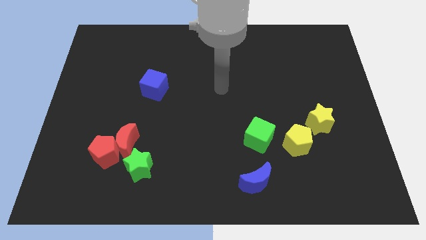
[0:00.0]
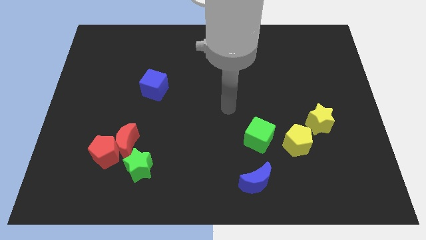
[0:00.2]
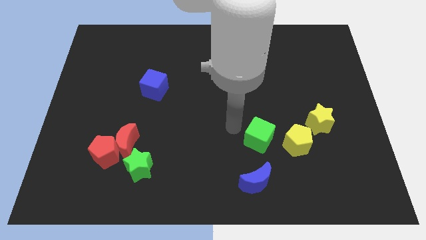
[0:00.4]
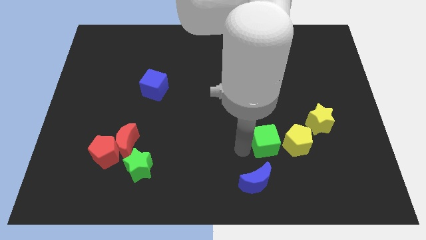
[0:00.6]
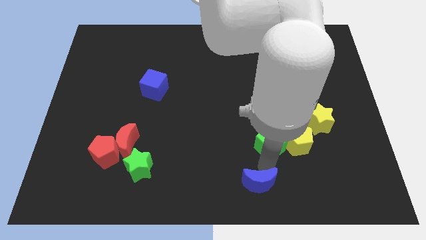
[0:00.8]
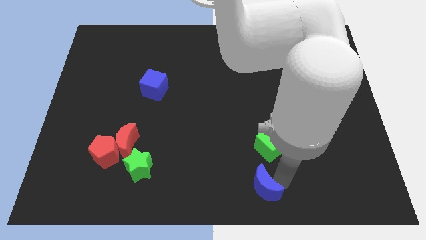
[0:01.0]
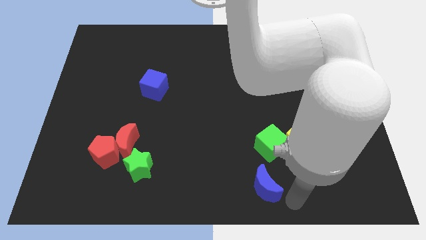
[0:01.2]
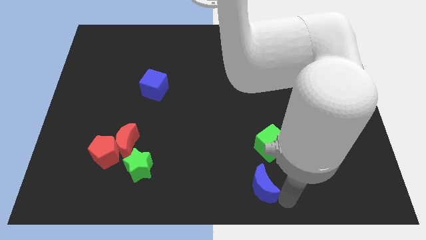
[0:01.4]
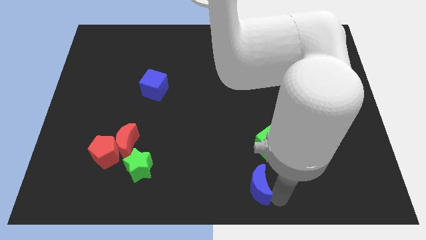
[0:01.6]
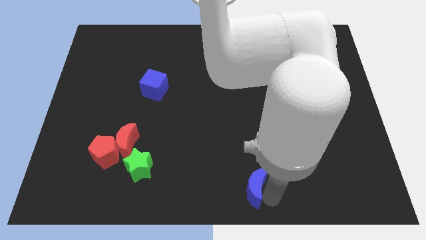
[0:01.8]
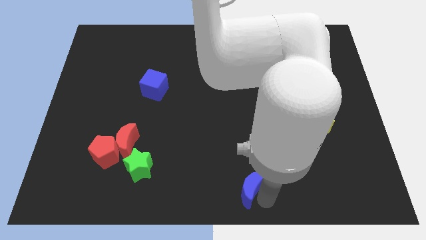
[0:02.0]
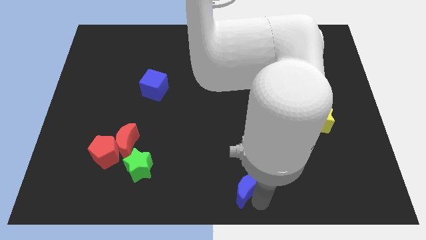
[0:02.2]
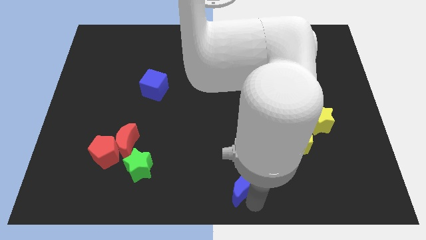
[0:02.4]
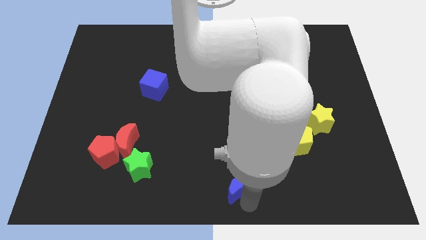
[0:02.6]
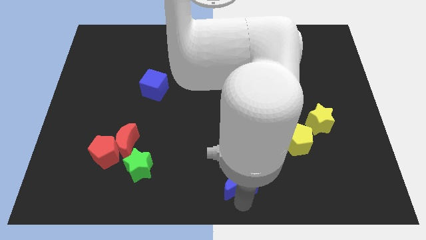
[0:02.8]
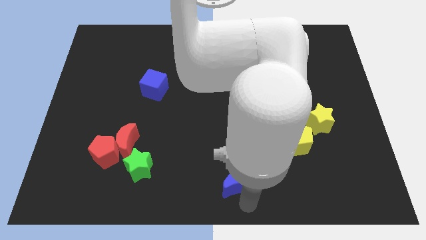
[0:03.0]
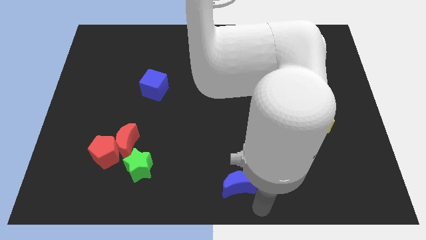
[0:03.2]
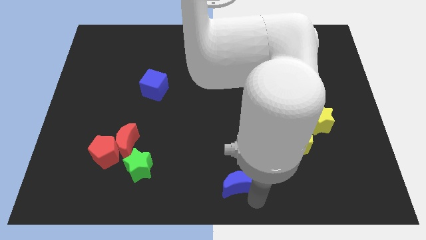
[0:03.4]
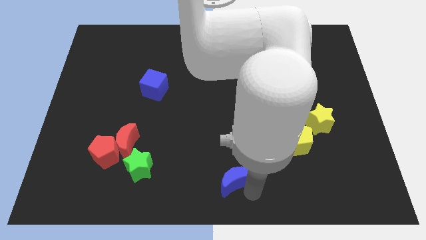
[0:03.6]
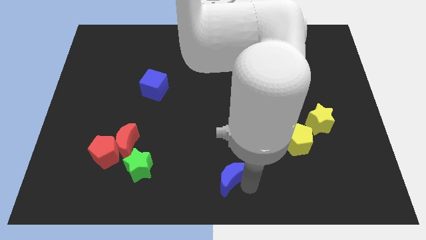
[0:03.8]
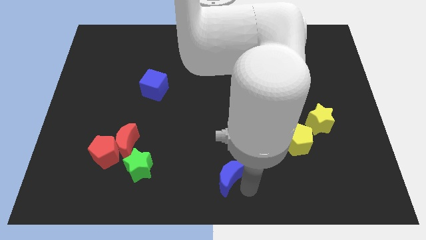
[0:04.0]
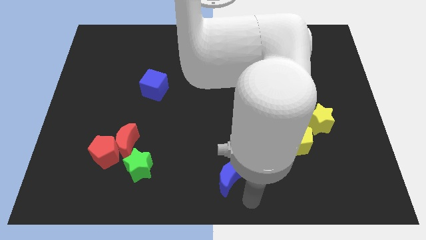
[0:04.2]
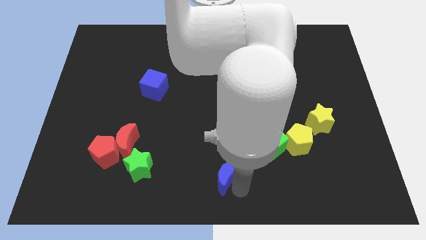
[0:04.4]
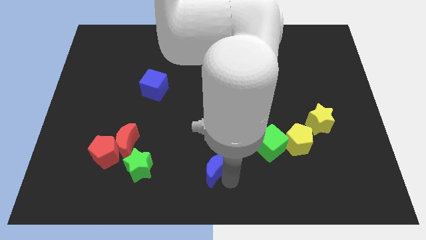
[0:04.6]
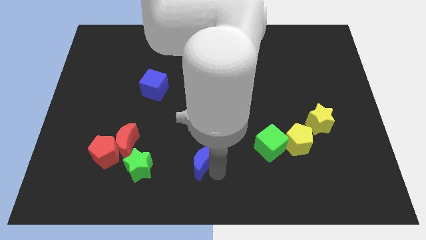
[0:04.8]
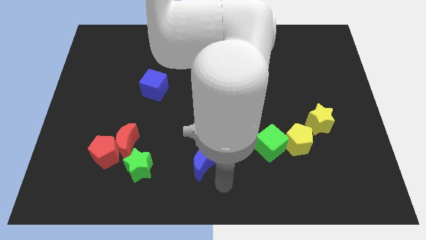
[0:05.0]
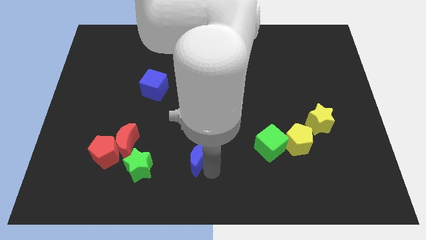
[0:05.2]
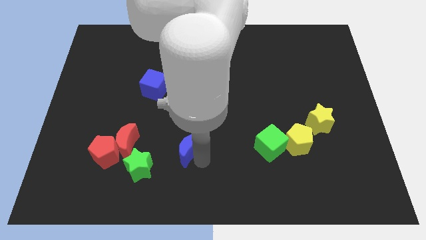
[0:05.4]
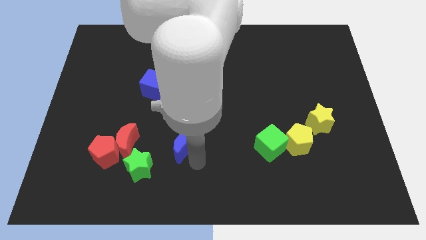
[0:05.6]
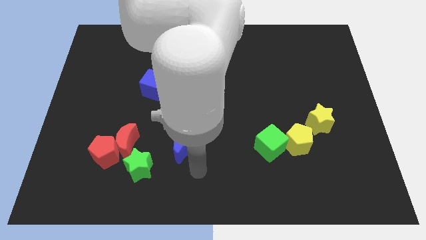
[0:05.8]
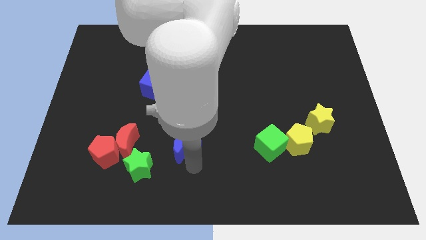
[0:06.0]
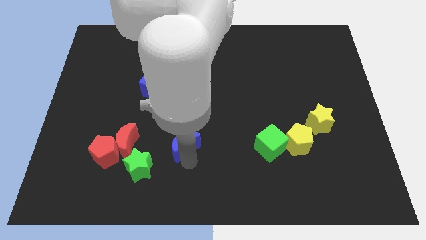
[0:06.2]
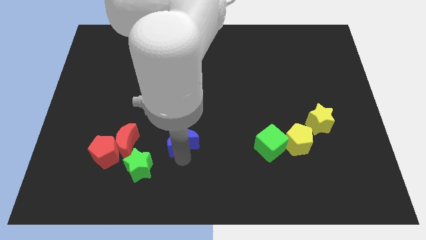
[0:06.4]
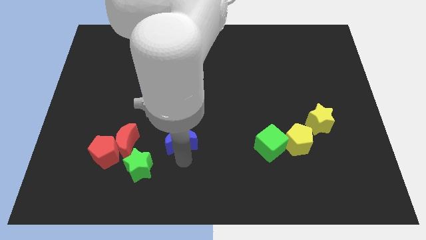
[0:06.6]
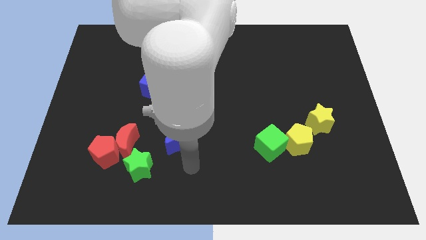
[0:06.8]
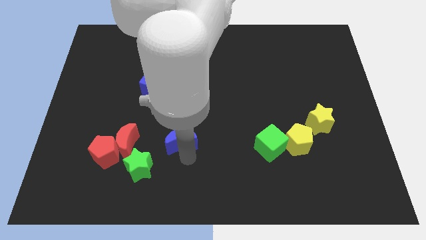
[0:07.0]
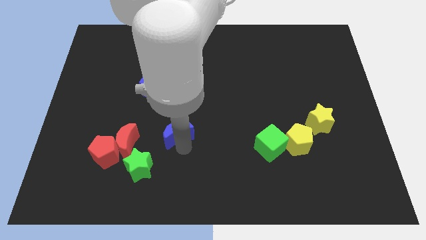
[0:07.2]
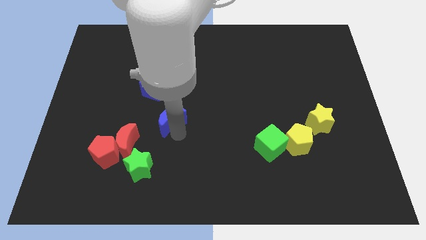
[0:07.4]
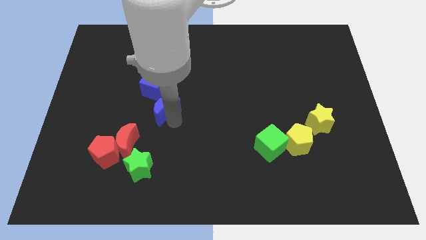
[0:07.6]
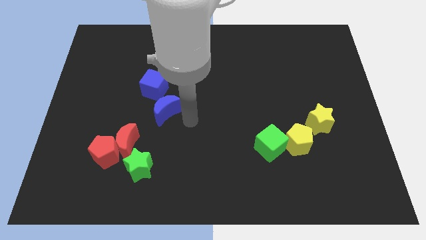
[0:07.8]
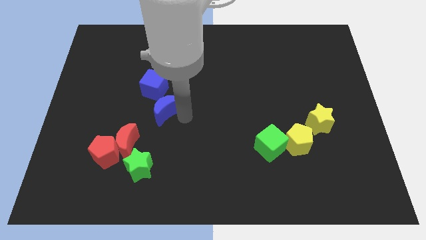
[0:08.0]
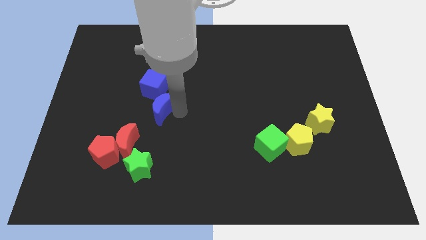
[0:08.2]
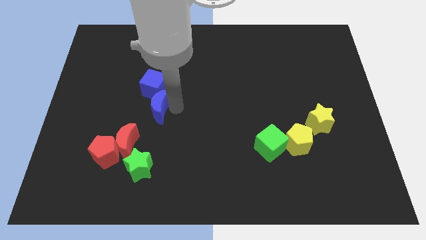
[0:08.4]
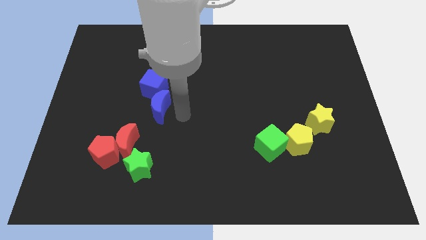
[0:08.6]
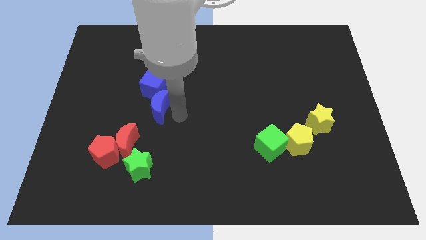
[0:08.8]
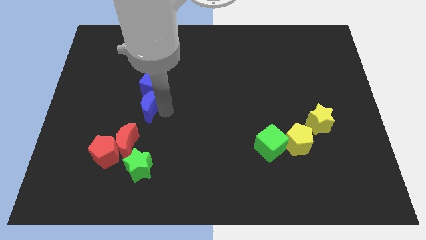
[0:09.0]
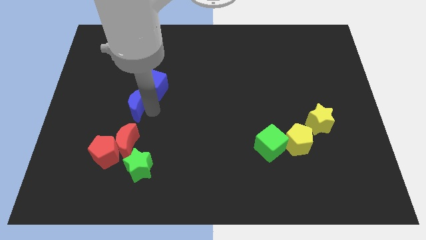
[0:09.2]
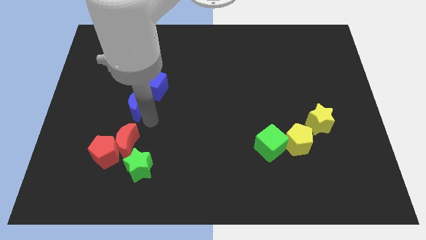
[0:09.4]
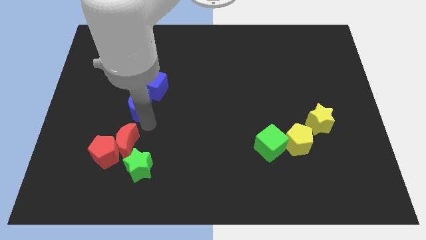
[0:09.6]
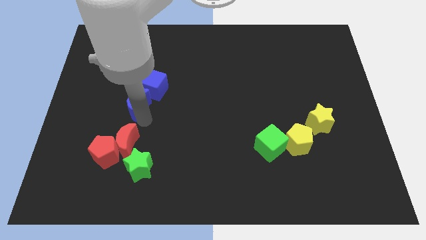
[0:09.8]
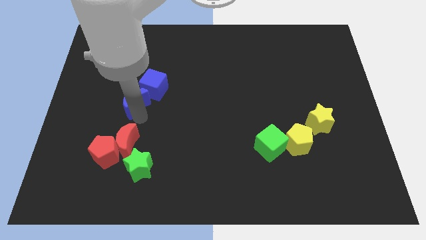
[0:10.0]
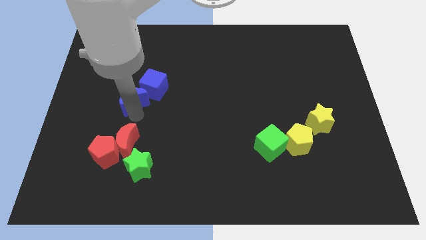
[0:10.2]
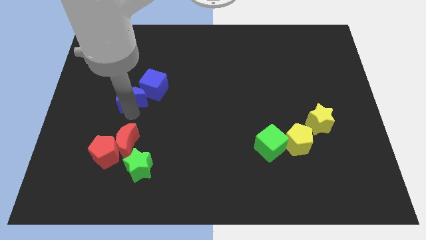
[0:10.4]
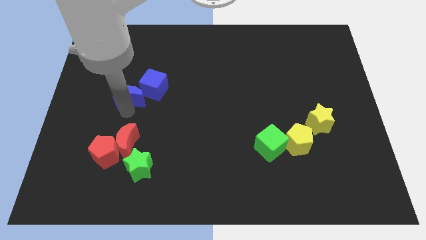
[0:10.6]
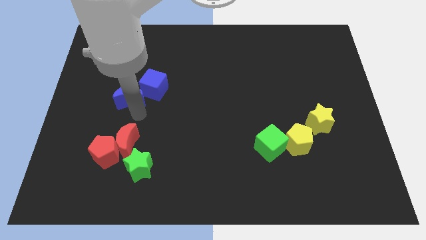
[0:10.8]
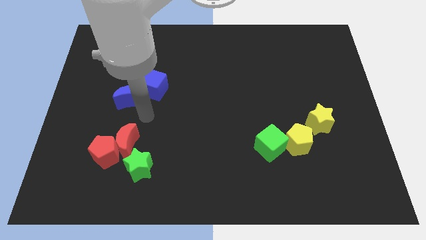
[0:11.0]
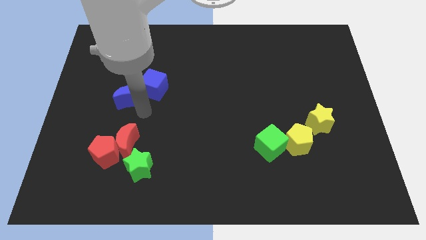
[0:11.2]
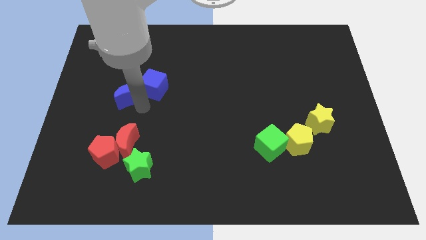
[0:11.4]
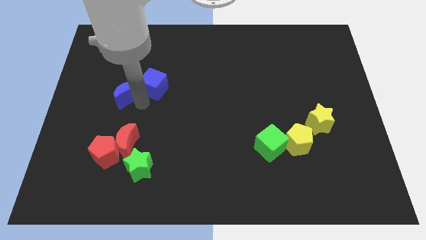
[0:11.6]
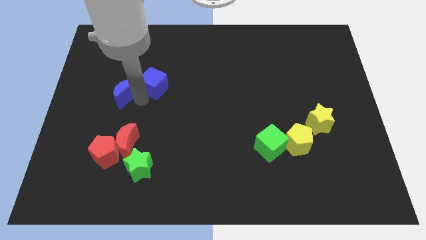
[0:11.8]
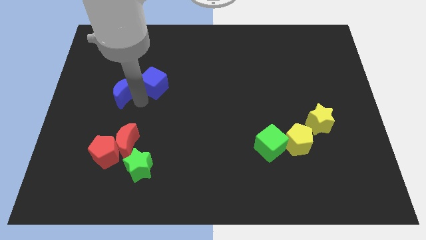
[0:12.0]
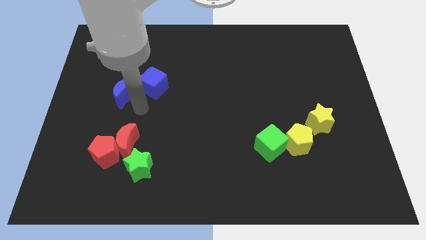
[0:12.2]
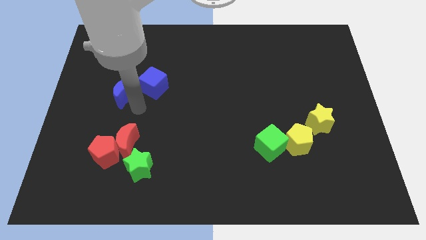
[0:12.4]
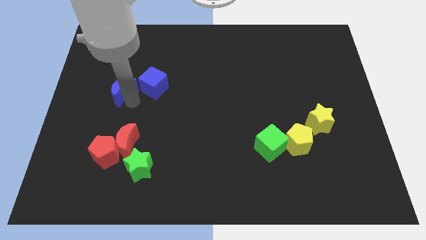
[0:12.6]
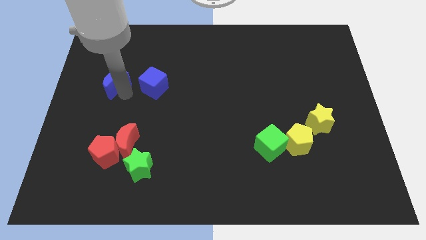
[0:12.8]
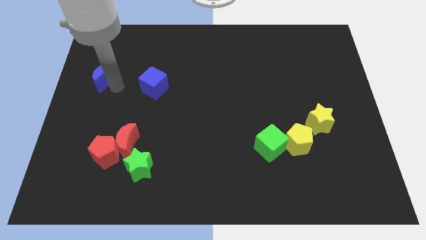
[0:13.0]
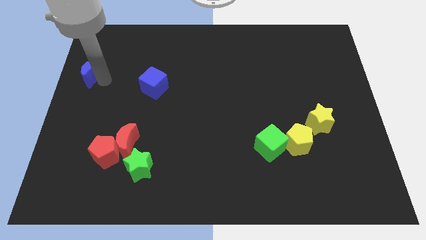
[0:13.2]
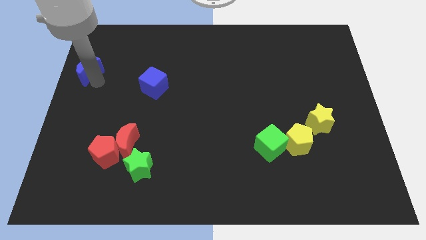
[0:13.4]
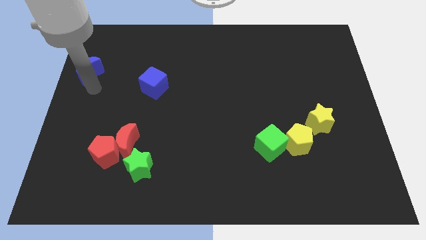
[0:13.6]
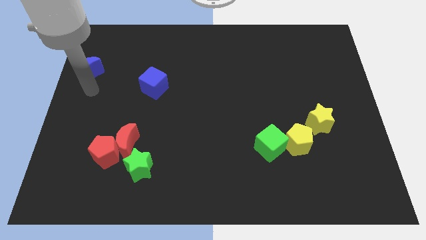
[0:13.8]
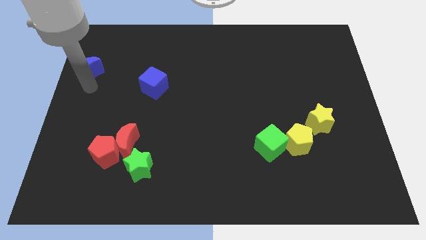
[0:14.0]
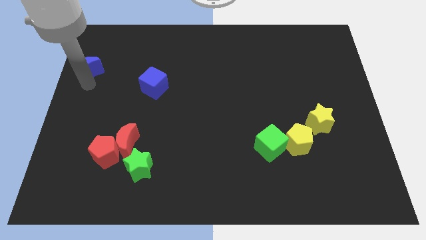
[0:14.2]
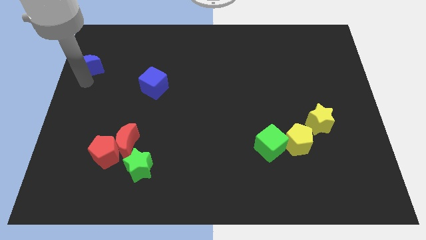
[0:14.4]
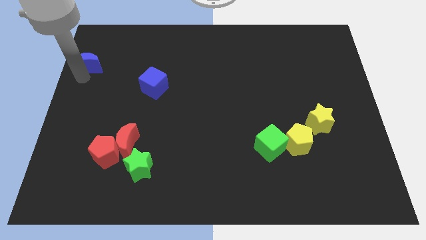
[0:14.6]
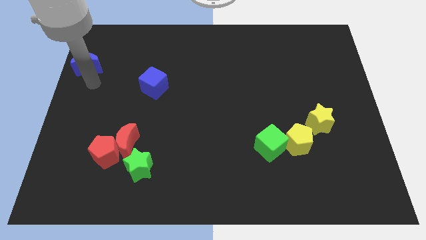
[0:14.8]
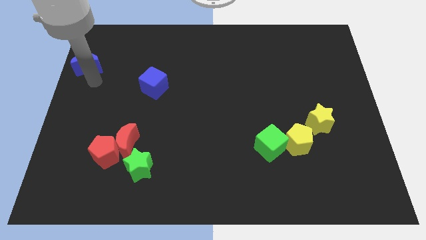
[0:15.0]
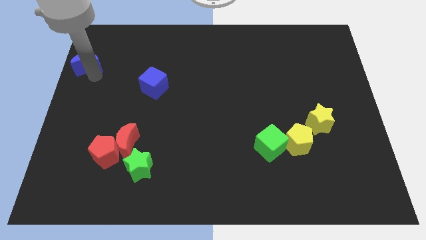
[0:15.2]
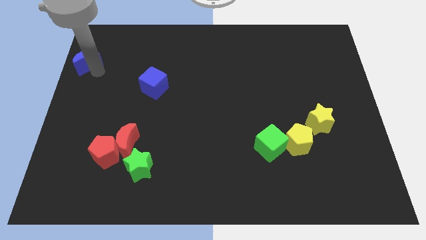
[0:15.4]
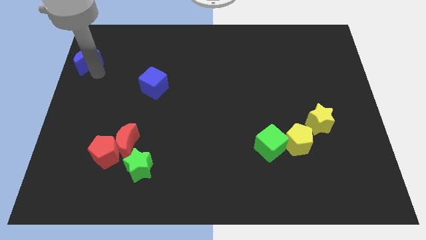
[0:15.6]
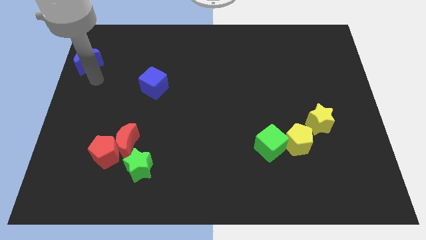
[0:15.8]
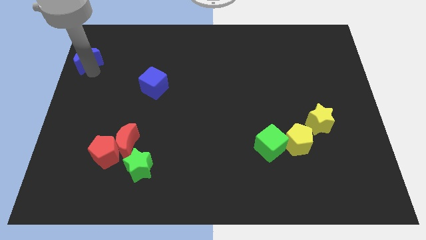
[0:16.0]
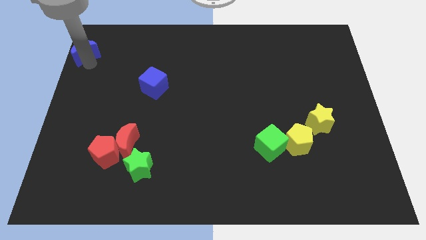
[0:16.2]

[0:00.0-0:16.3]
push the blue moon to the top left of the board
